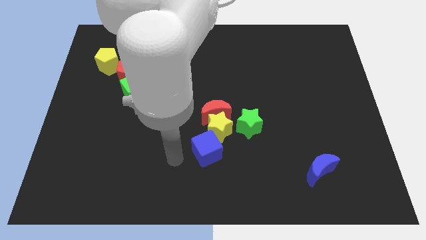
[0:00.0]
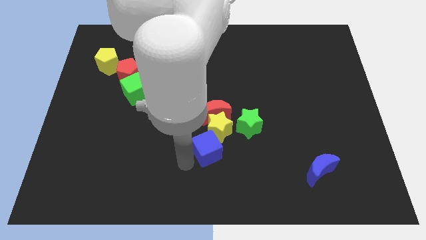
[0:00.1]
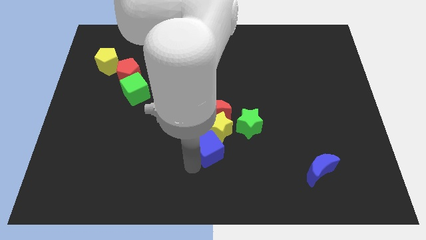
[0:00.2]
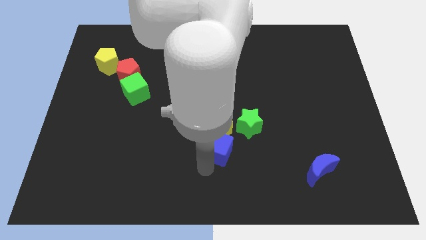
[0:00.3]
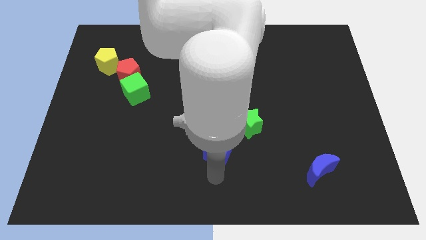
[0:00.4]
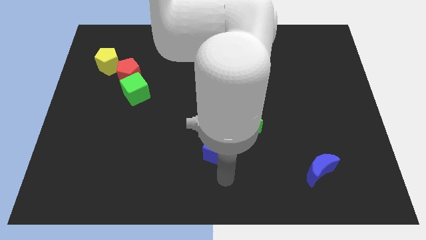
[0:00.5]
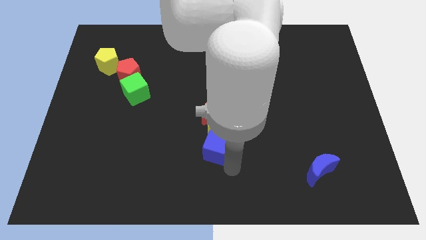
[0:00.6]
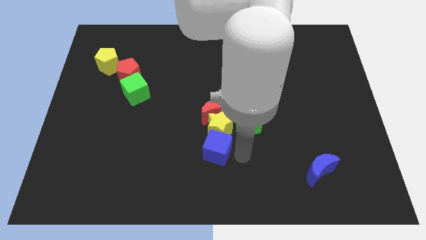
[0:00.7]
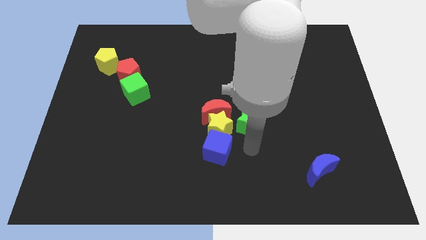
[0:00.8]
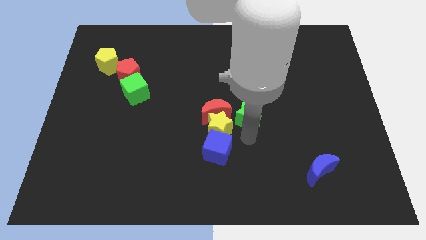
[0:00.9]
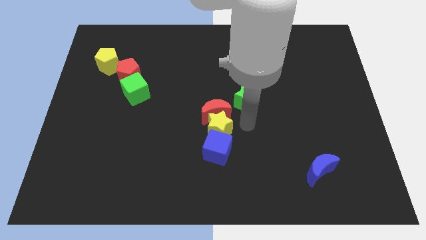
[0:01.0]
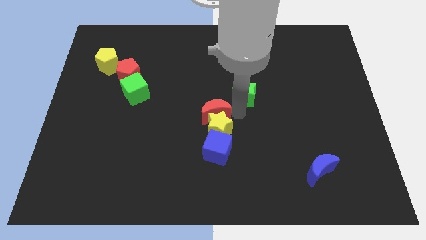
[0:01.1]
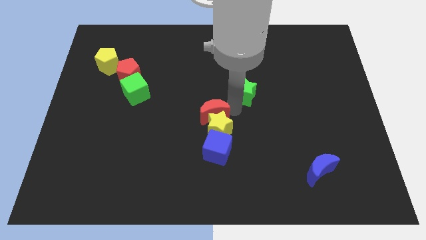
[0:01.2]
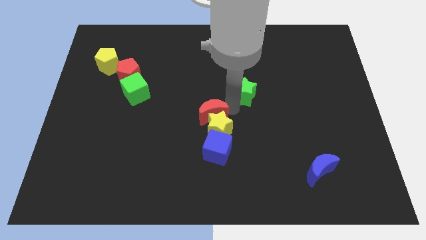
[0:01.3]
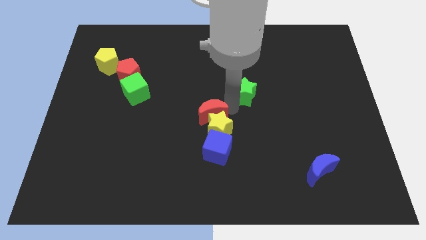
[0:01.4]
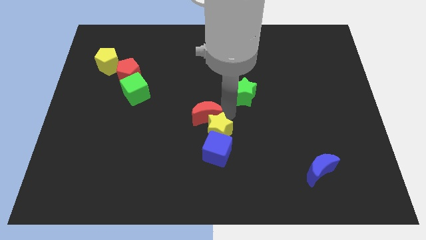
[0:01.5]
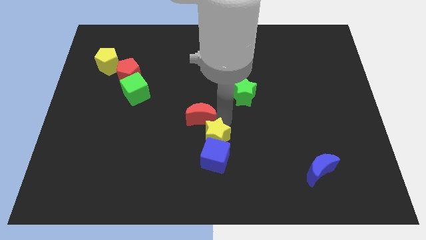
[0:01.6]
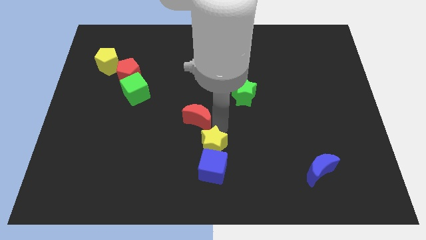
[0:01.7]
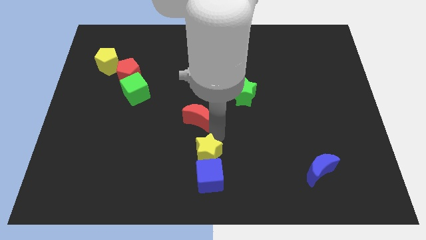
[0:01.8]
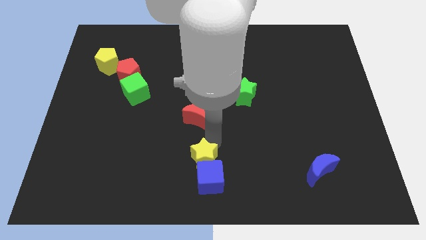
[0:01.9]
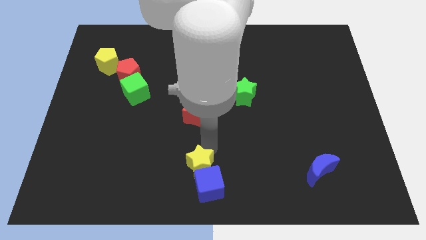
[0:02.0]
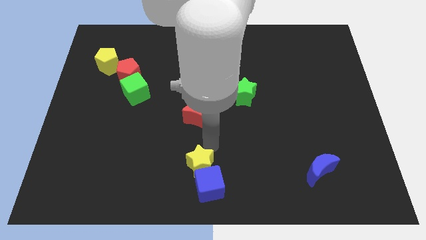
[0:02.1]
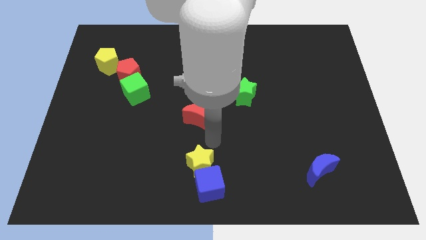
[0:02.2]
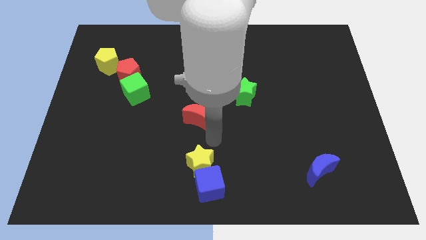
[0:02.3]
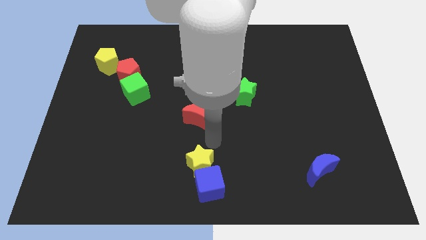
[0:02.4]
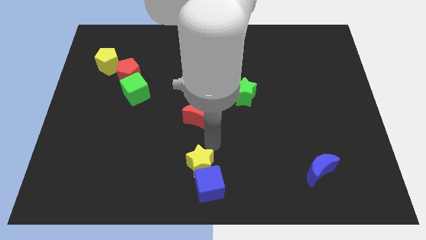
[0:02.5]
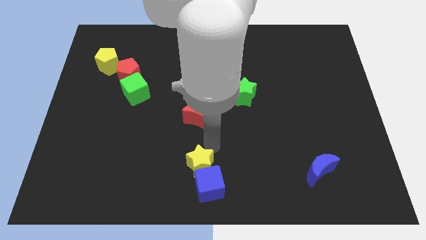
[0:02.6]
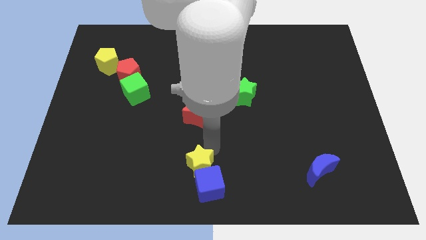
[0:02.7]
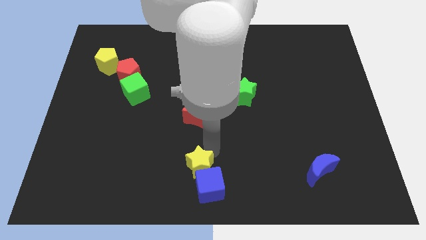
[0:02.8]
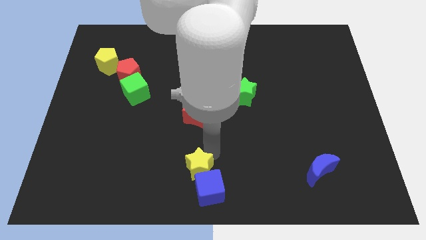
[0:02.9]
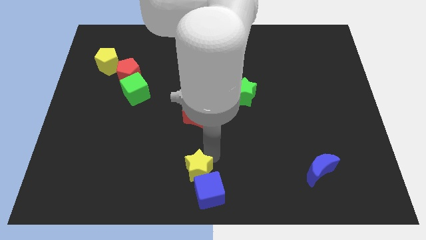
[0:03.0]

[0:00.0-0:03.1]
move the yellow star away from the red moon, blue cube, and green star

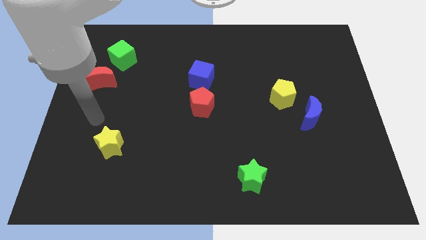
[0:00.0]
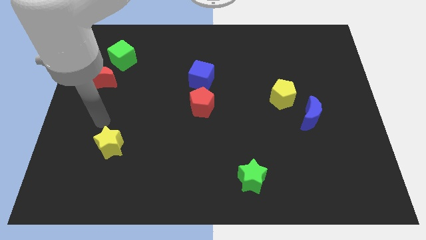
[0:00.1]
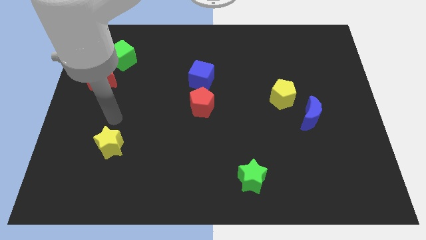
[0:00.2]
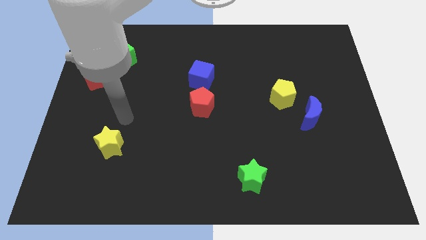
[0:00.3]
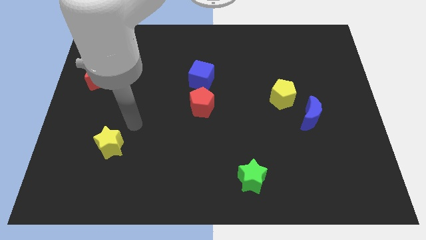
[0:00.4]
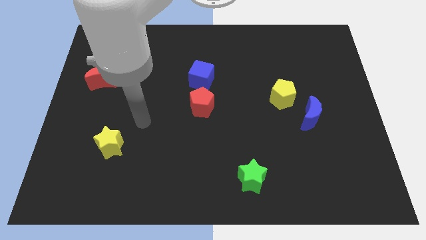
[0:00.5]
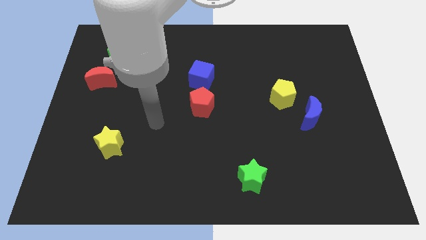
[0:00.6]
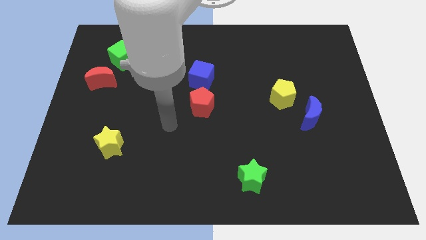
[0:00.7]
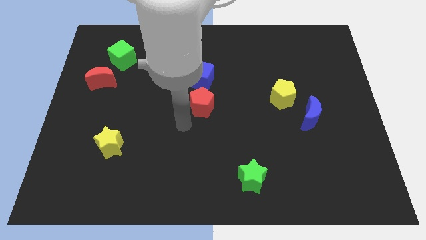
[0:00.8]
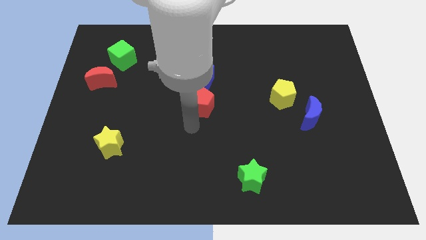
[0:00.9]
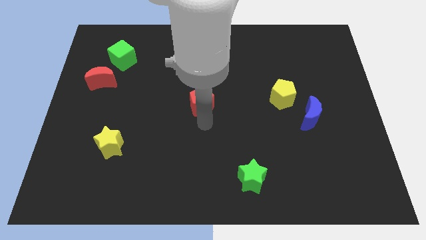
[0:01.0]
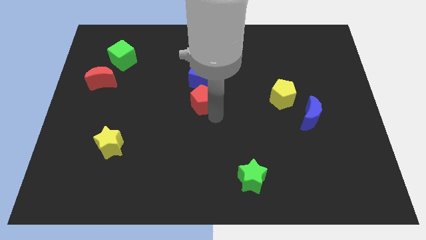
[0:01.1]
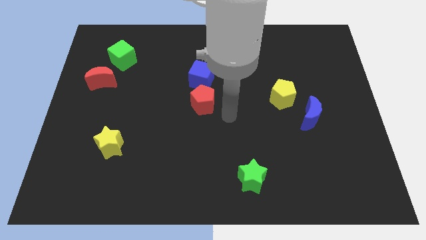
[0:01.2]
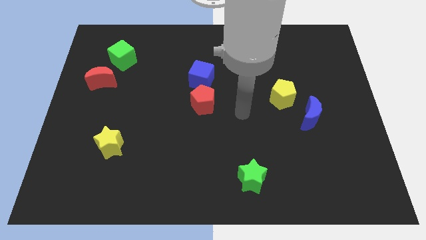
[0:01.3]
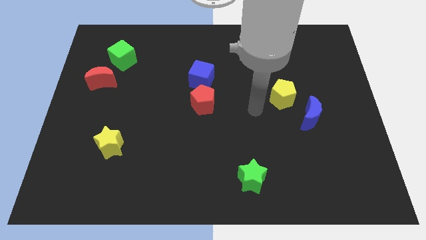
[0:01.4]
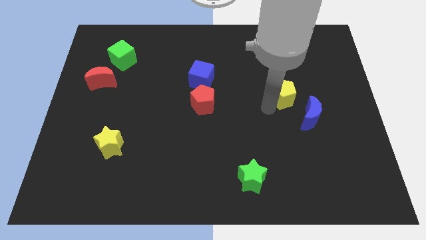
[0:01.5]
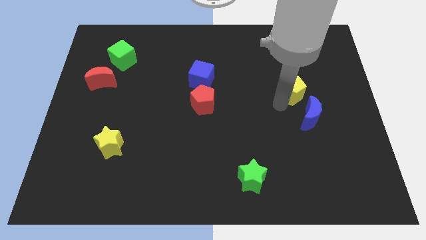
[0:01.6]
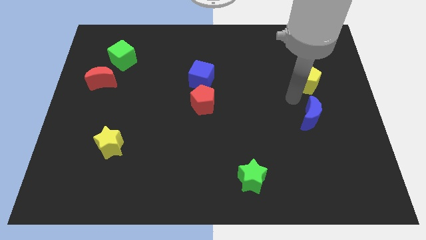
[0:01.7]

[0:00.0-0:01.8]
separate the blue moon from the yellow pentagon

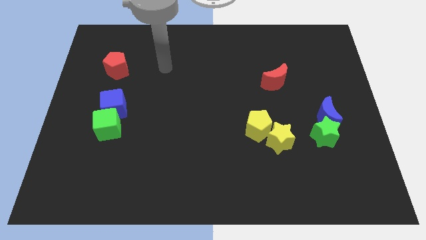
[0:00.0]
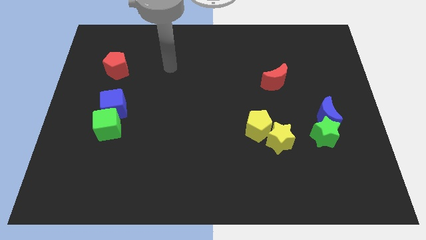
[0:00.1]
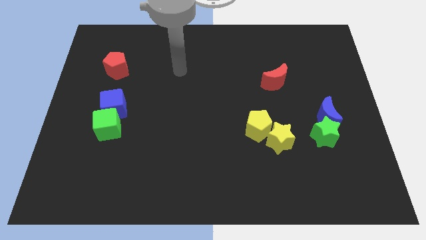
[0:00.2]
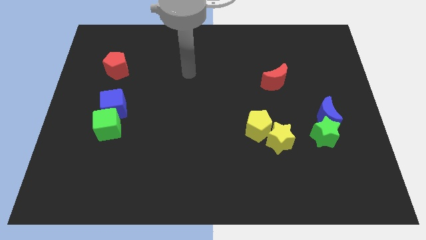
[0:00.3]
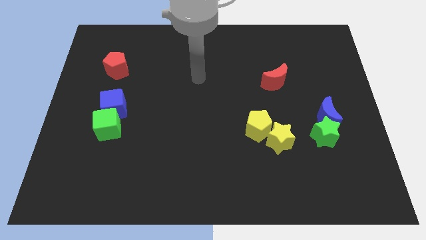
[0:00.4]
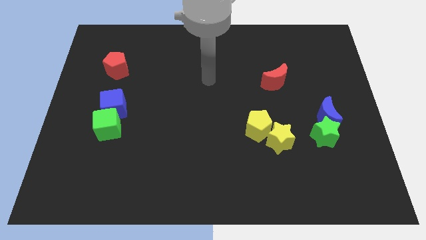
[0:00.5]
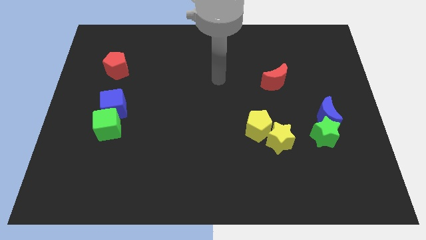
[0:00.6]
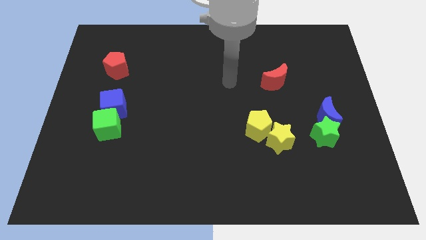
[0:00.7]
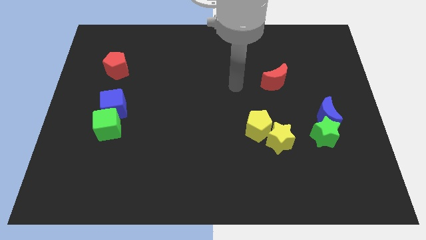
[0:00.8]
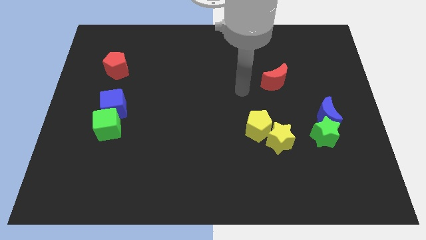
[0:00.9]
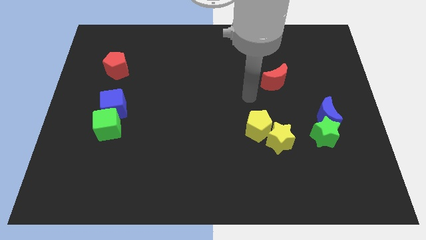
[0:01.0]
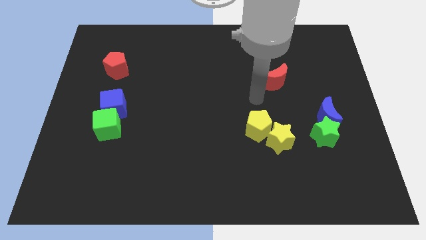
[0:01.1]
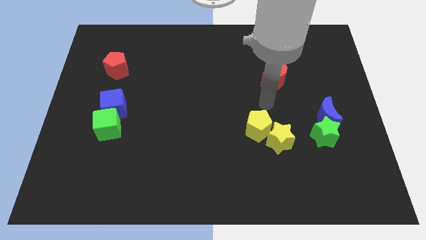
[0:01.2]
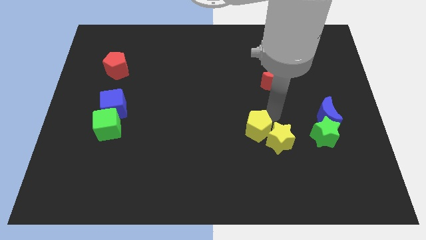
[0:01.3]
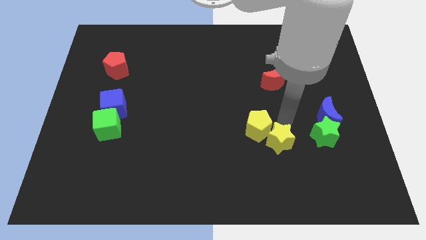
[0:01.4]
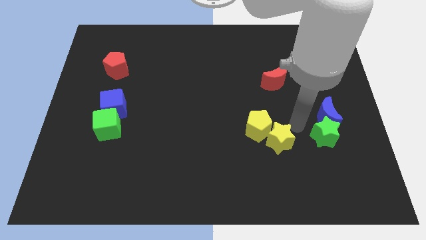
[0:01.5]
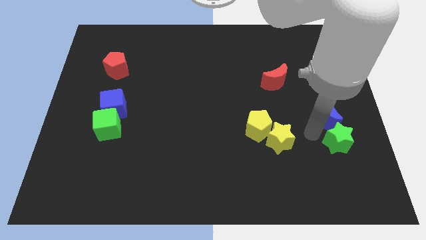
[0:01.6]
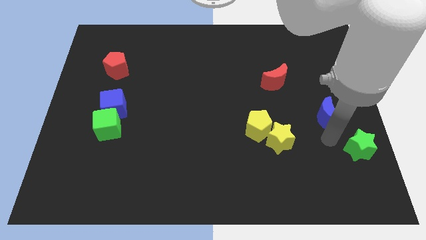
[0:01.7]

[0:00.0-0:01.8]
separate the blue moon from the green star

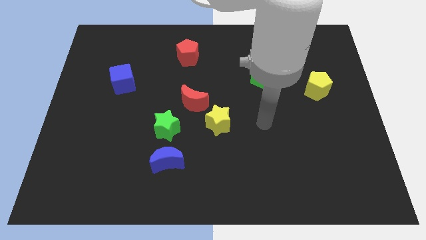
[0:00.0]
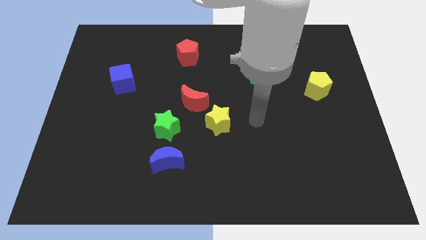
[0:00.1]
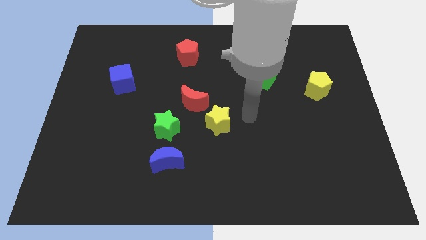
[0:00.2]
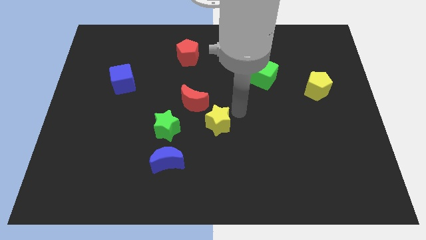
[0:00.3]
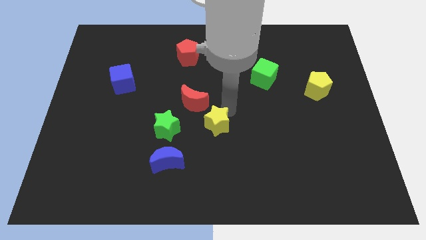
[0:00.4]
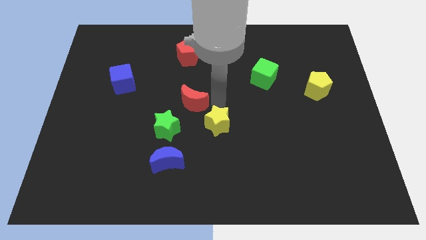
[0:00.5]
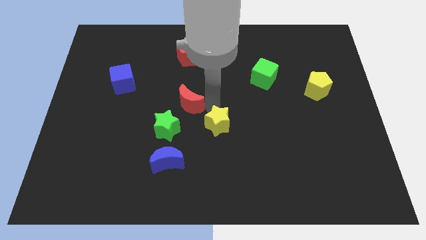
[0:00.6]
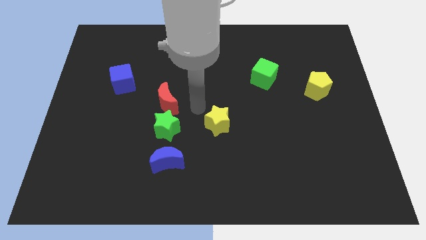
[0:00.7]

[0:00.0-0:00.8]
pull the yellow star apart from the red moon

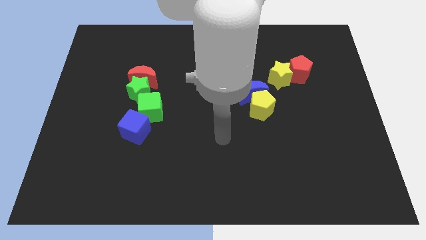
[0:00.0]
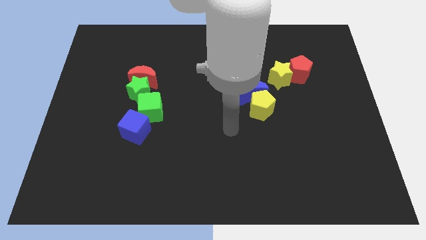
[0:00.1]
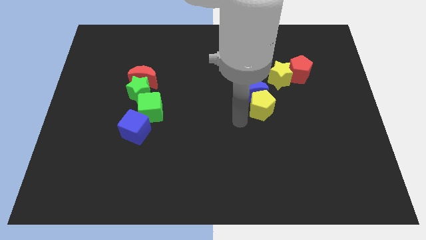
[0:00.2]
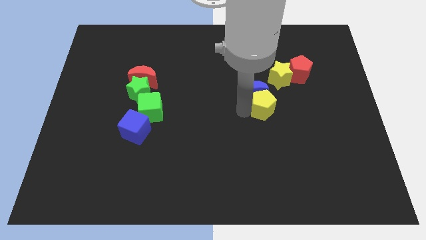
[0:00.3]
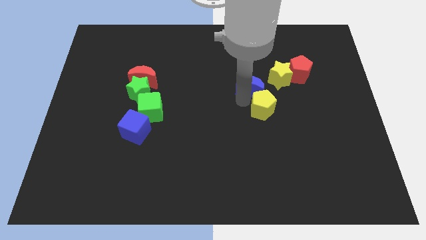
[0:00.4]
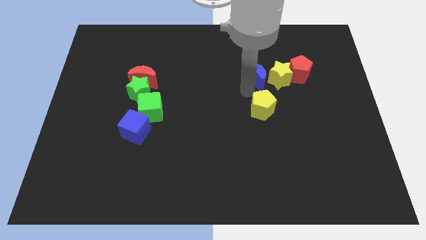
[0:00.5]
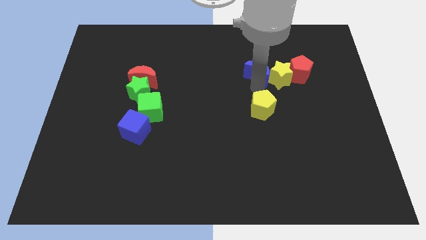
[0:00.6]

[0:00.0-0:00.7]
separate the yellow pentagon from the blue moon

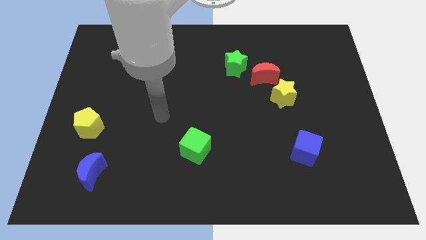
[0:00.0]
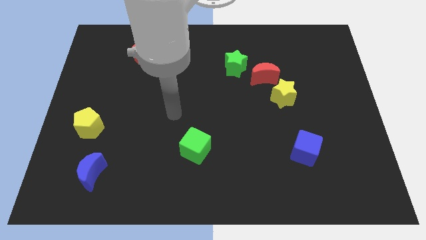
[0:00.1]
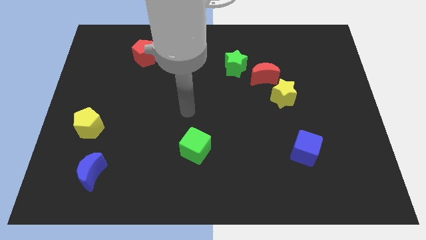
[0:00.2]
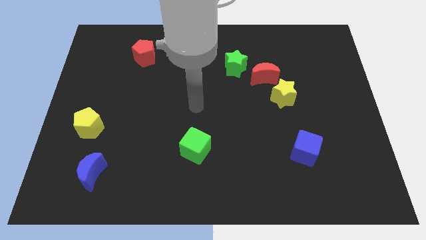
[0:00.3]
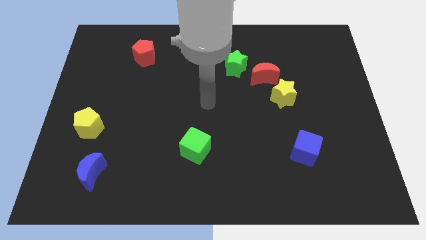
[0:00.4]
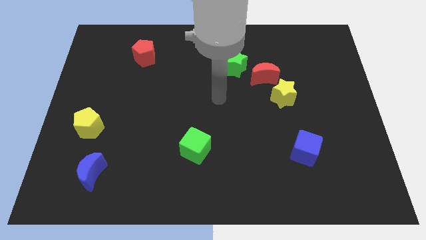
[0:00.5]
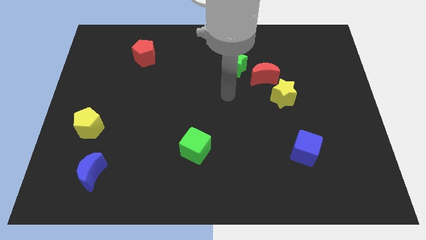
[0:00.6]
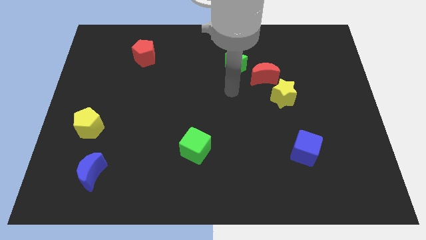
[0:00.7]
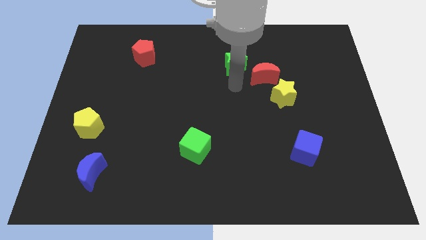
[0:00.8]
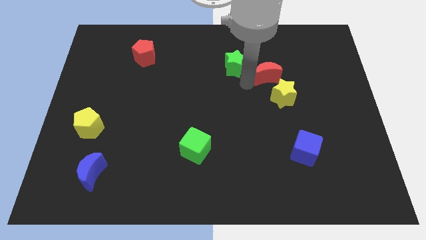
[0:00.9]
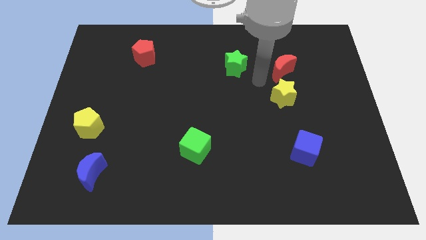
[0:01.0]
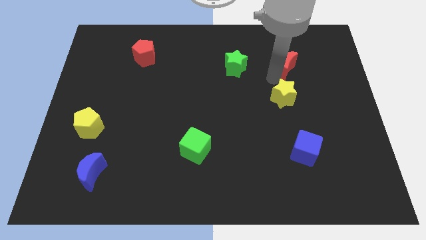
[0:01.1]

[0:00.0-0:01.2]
move the yellow star away from the red moon
